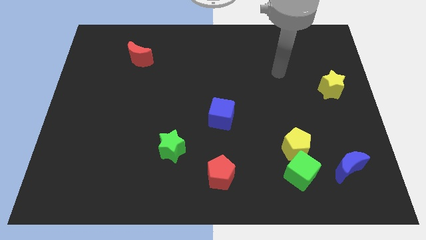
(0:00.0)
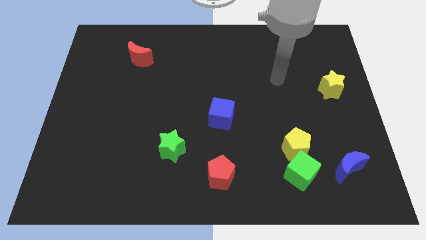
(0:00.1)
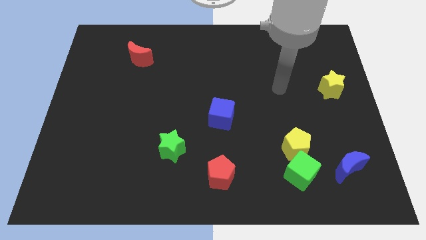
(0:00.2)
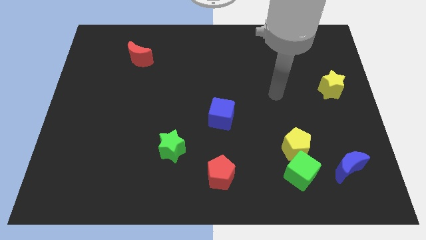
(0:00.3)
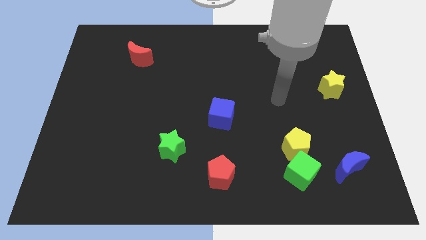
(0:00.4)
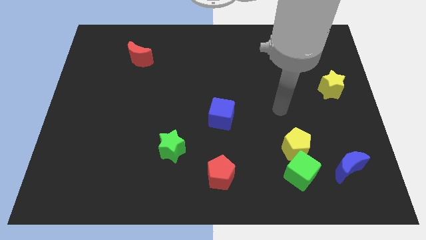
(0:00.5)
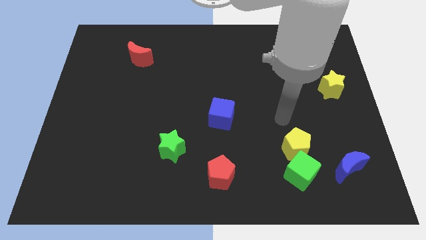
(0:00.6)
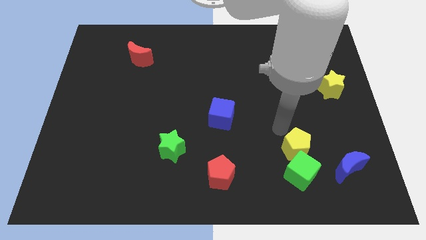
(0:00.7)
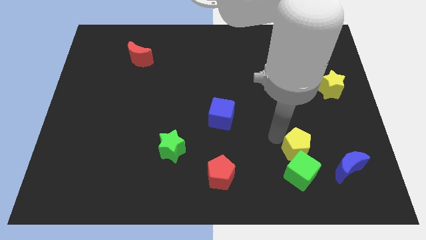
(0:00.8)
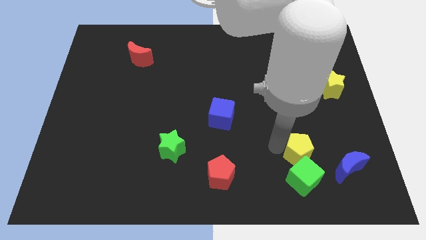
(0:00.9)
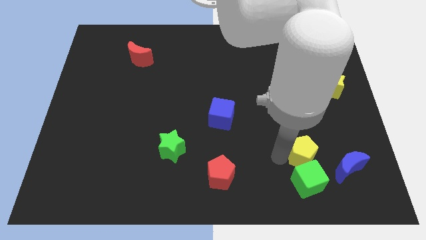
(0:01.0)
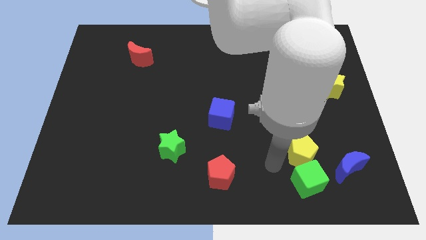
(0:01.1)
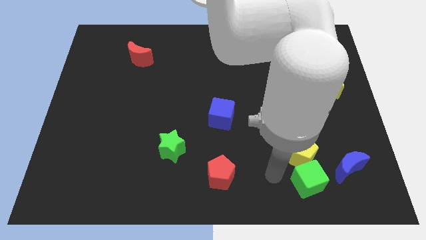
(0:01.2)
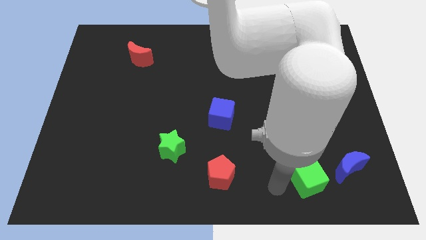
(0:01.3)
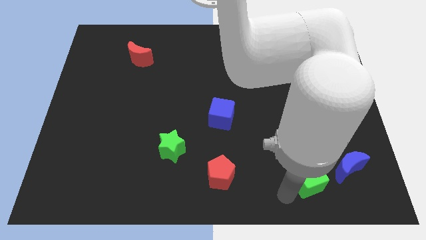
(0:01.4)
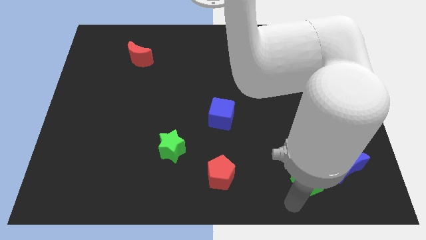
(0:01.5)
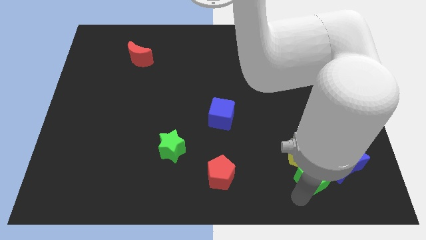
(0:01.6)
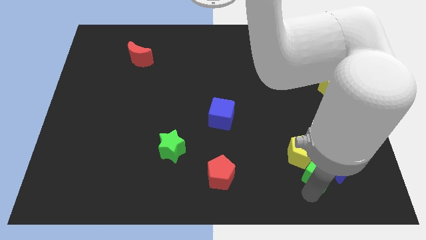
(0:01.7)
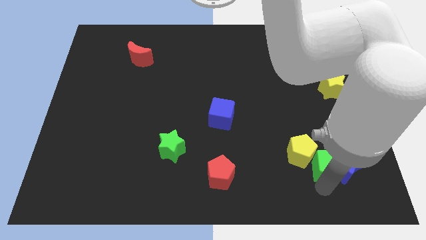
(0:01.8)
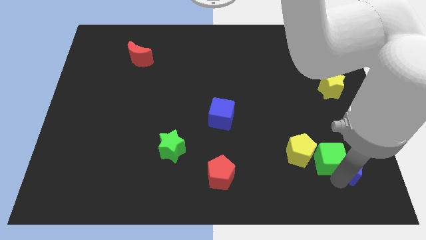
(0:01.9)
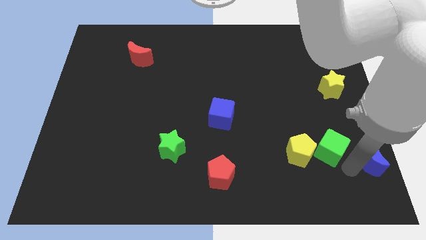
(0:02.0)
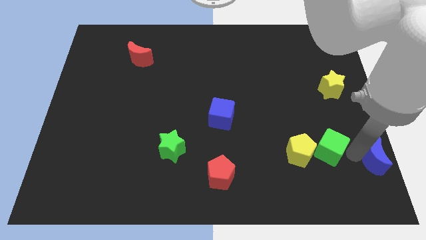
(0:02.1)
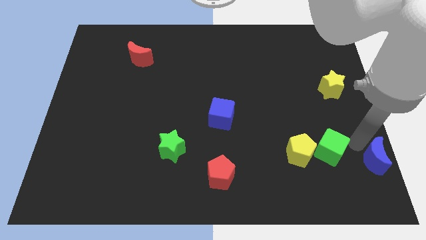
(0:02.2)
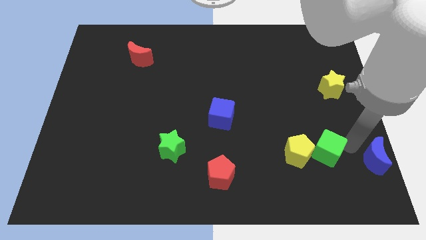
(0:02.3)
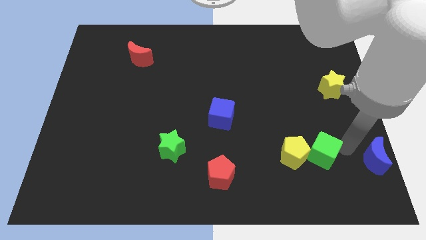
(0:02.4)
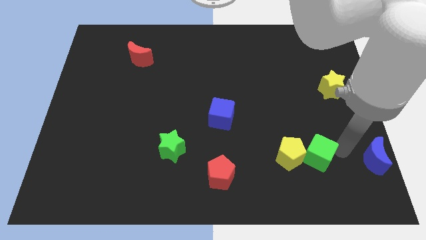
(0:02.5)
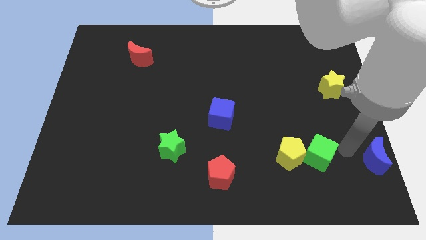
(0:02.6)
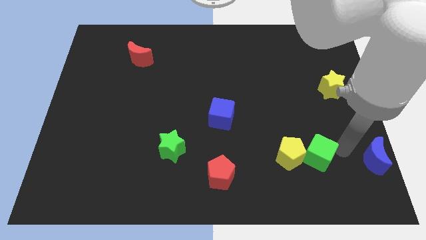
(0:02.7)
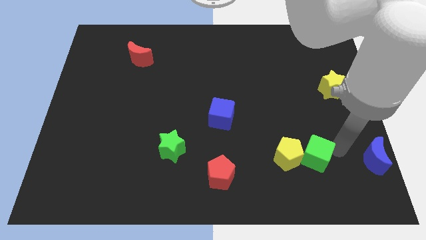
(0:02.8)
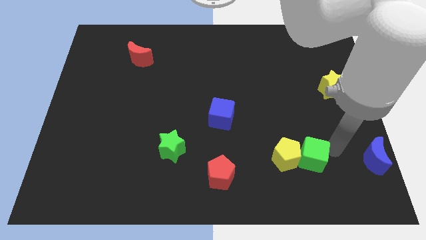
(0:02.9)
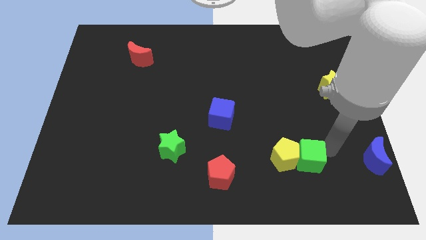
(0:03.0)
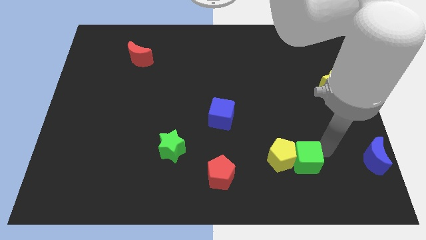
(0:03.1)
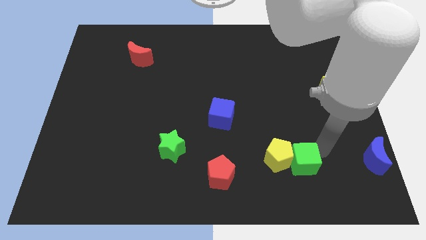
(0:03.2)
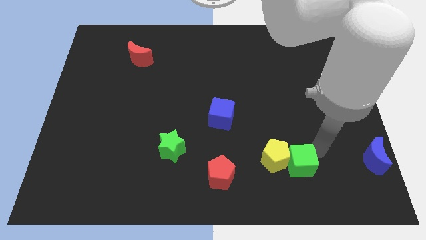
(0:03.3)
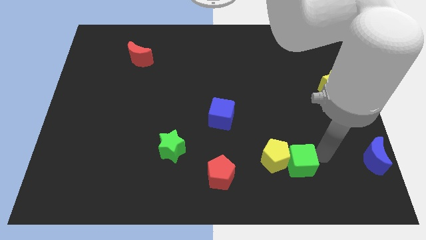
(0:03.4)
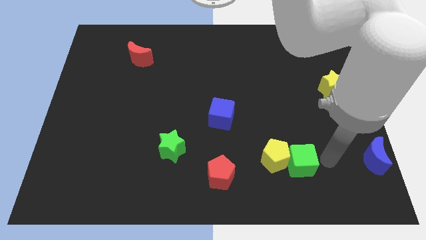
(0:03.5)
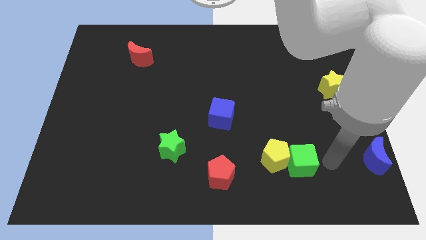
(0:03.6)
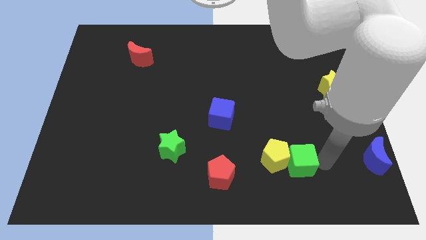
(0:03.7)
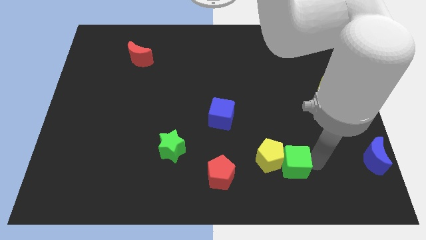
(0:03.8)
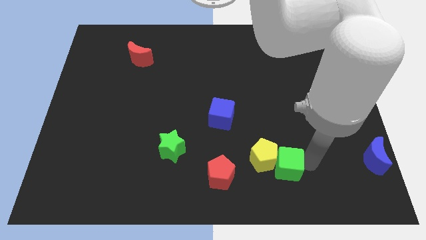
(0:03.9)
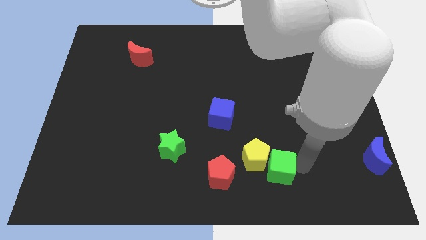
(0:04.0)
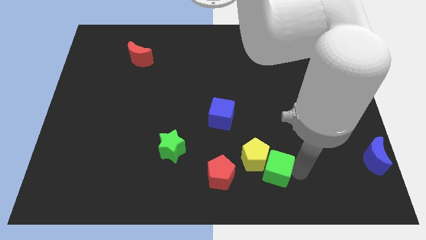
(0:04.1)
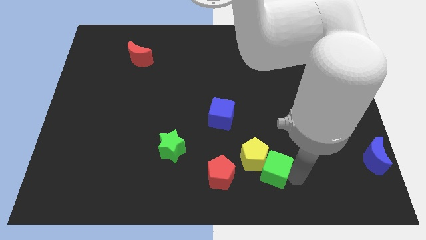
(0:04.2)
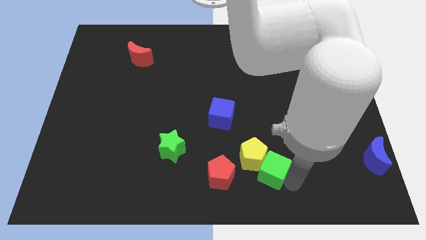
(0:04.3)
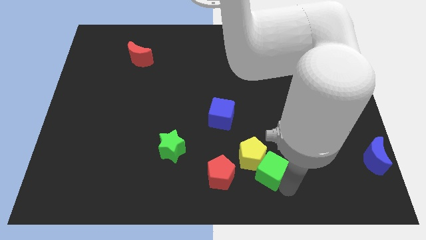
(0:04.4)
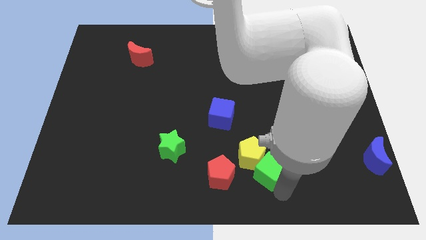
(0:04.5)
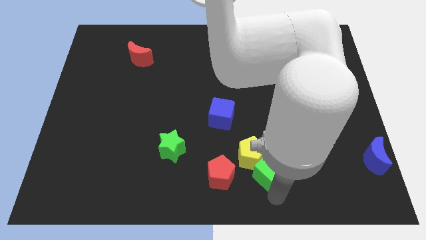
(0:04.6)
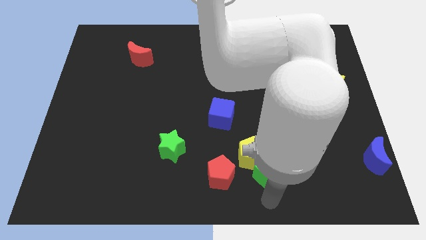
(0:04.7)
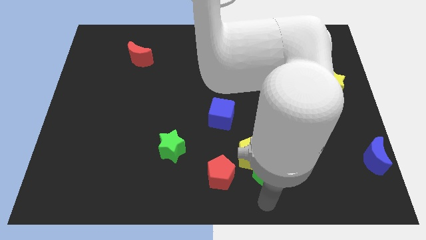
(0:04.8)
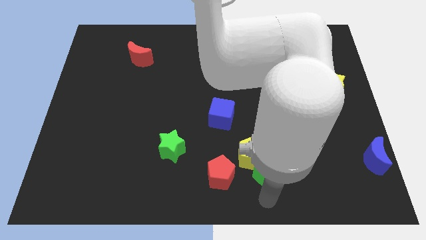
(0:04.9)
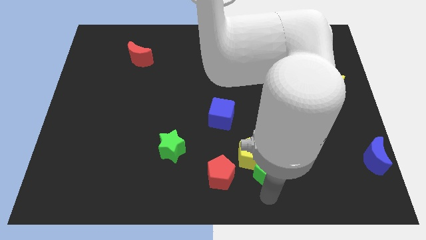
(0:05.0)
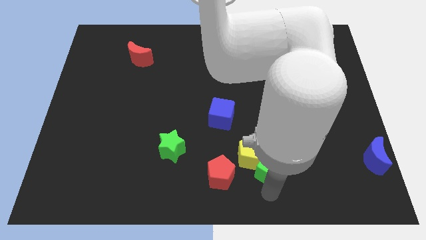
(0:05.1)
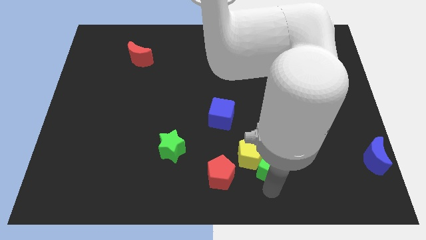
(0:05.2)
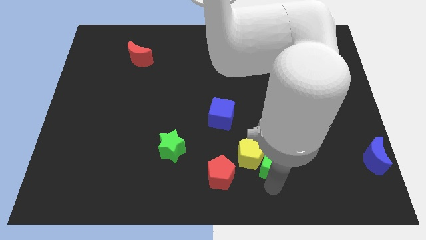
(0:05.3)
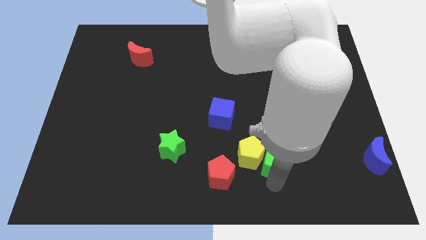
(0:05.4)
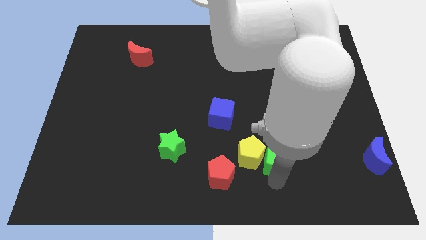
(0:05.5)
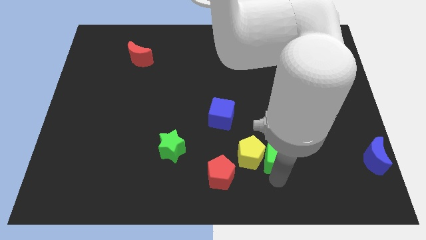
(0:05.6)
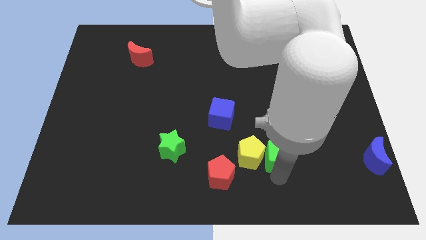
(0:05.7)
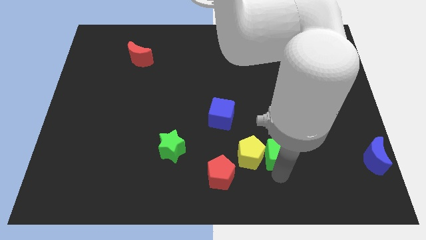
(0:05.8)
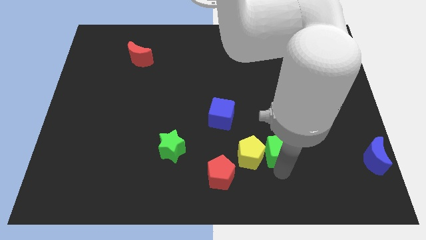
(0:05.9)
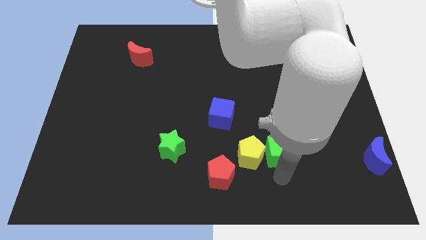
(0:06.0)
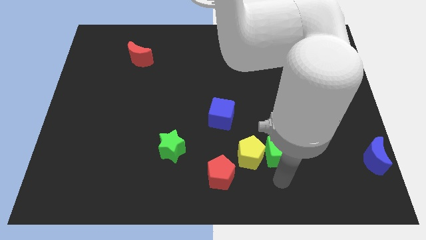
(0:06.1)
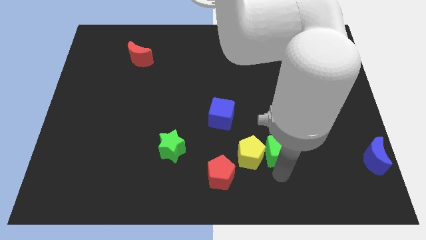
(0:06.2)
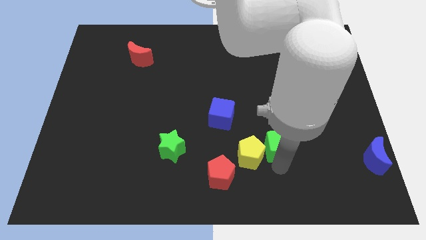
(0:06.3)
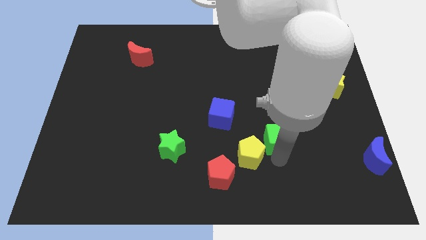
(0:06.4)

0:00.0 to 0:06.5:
slightly slide the green cube up

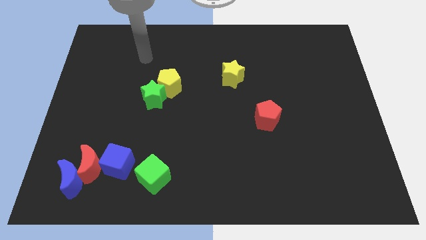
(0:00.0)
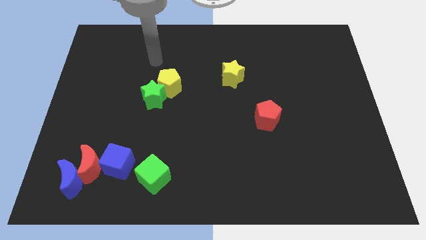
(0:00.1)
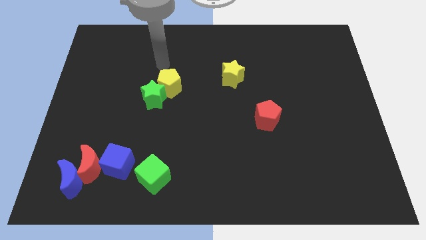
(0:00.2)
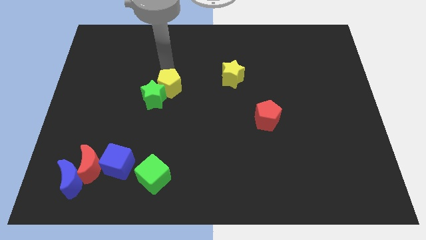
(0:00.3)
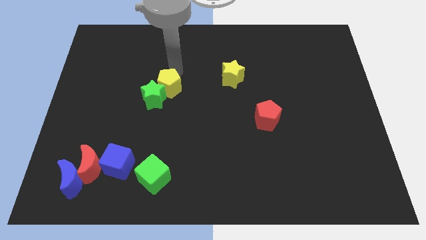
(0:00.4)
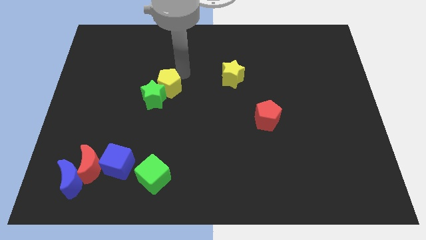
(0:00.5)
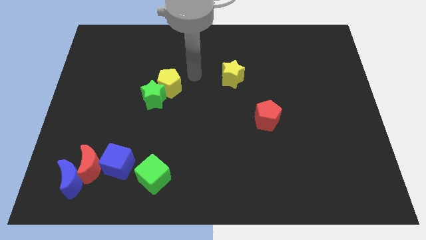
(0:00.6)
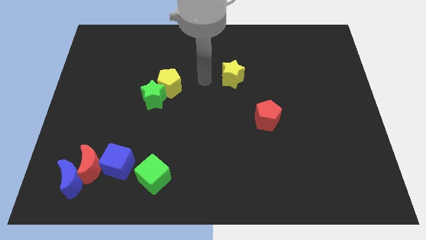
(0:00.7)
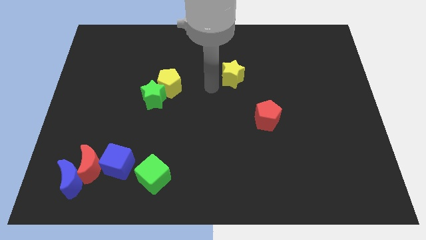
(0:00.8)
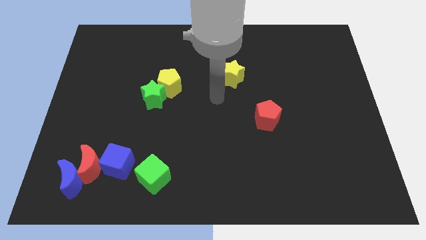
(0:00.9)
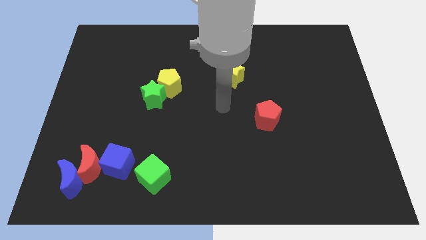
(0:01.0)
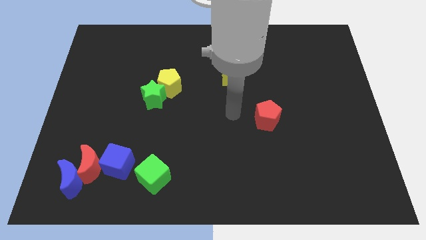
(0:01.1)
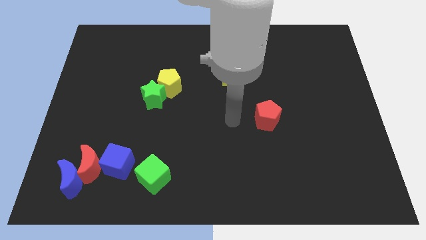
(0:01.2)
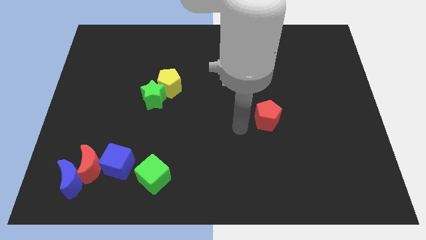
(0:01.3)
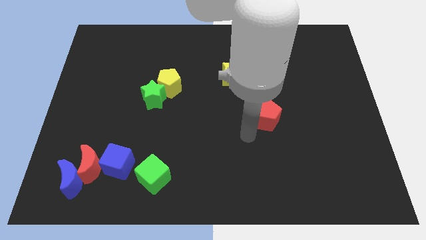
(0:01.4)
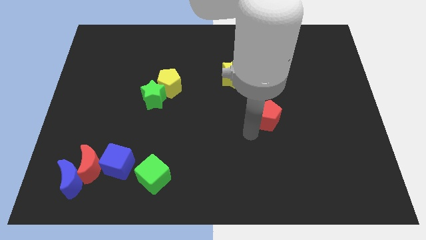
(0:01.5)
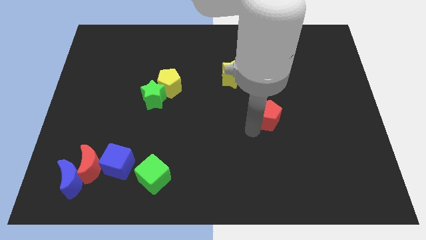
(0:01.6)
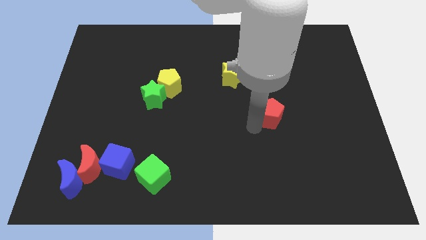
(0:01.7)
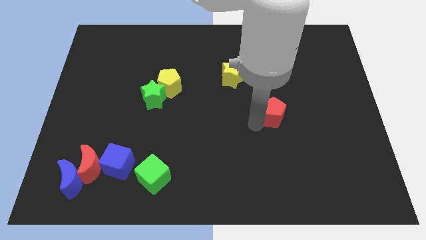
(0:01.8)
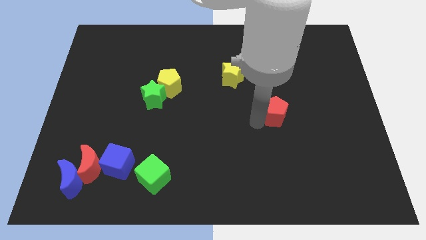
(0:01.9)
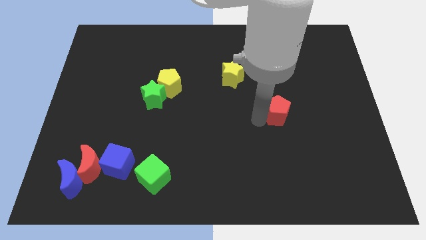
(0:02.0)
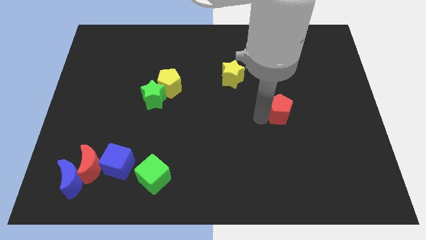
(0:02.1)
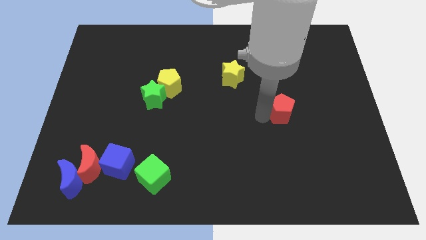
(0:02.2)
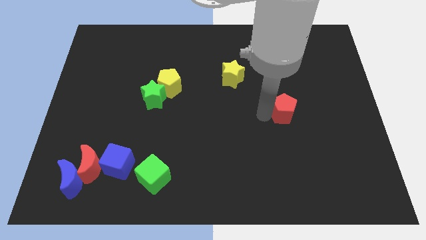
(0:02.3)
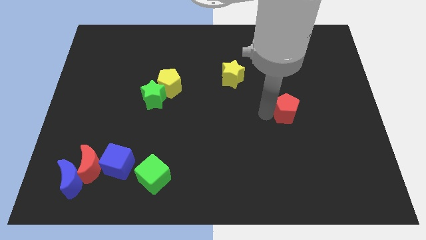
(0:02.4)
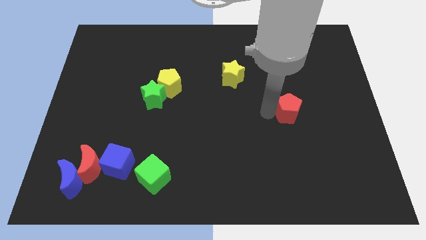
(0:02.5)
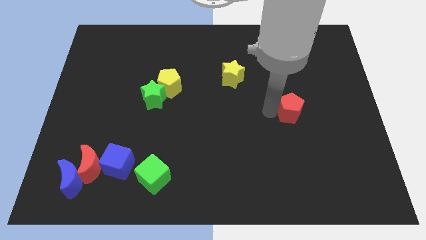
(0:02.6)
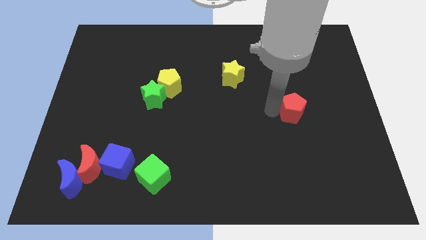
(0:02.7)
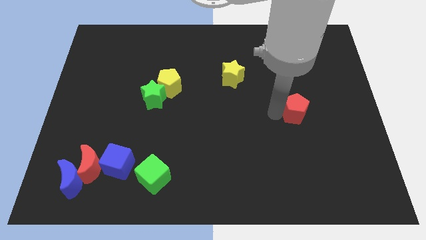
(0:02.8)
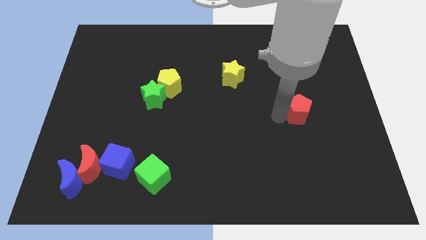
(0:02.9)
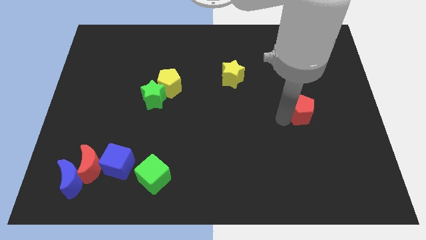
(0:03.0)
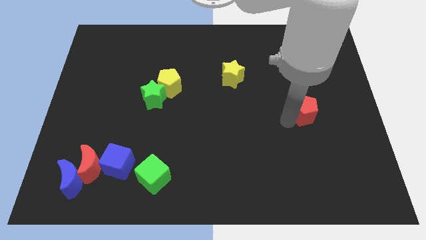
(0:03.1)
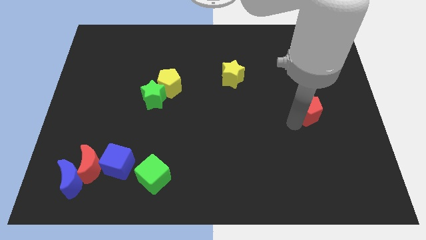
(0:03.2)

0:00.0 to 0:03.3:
move the red pentagon a bit up and to the right diagonally
